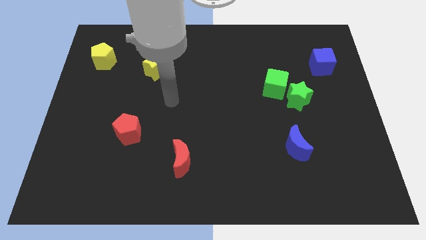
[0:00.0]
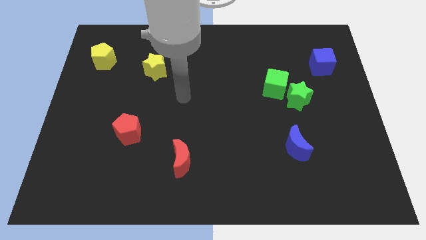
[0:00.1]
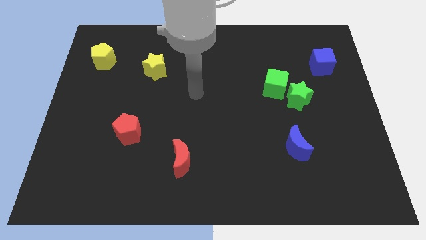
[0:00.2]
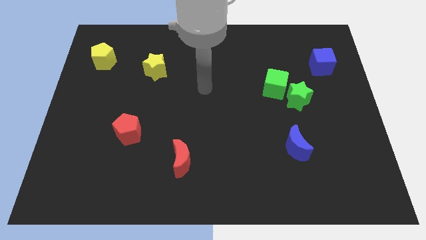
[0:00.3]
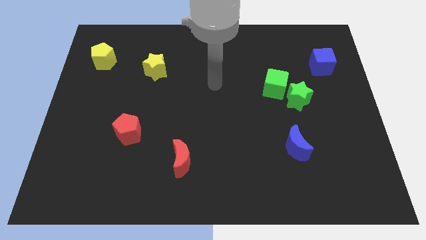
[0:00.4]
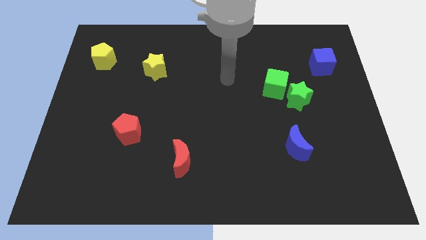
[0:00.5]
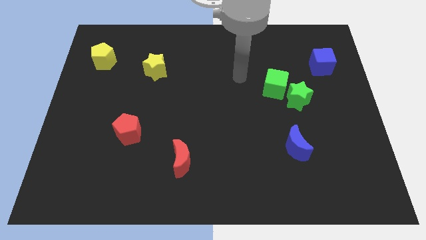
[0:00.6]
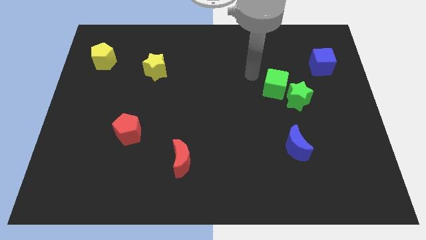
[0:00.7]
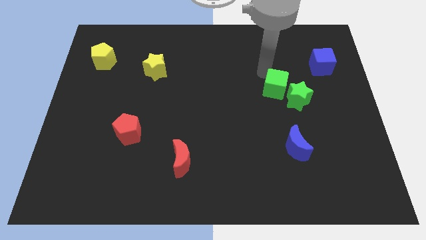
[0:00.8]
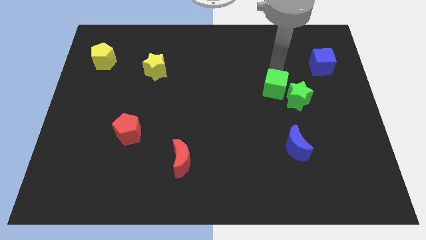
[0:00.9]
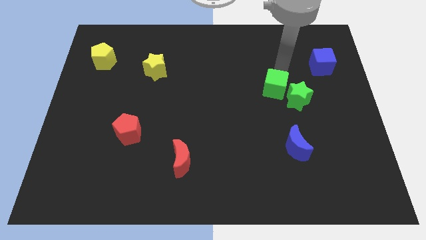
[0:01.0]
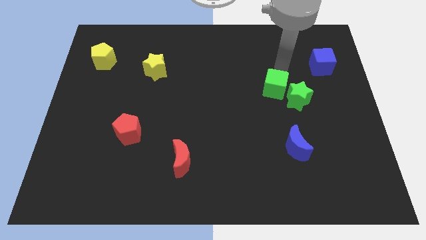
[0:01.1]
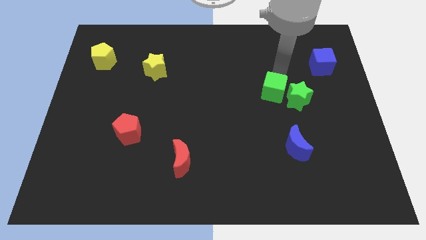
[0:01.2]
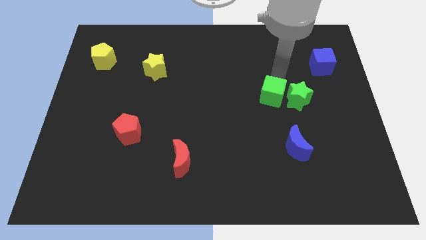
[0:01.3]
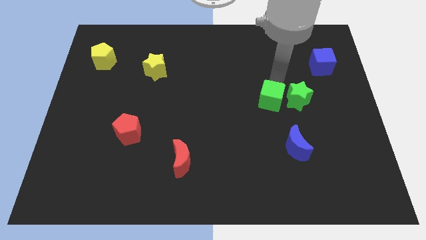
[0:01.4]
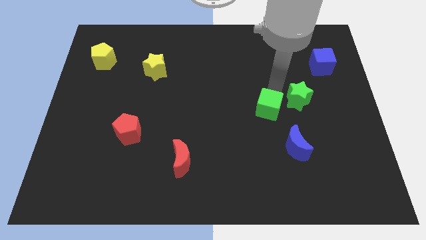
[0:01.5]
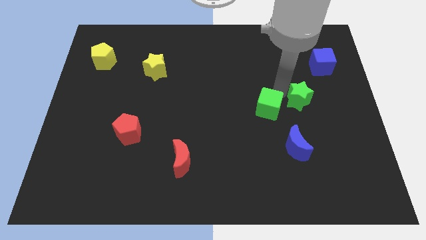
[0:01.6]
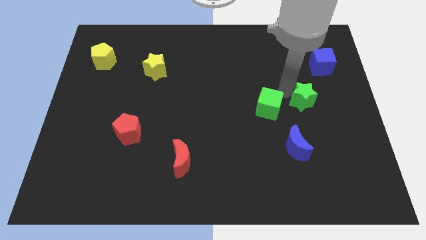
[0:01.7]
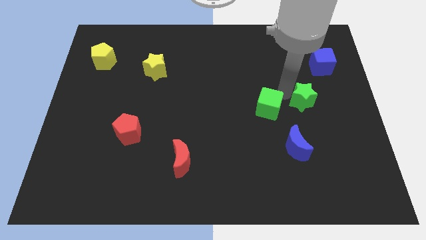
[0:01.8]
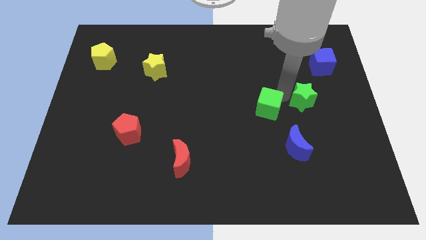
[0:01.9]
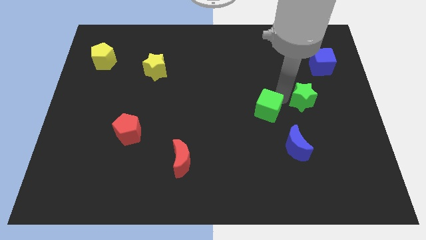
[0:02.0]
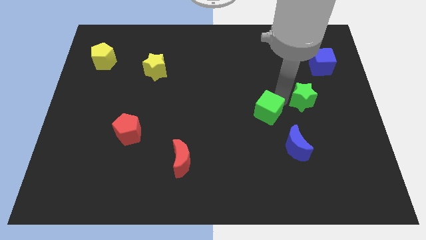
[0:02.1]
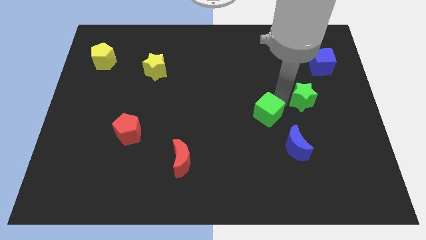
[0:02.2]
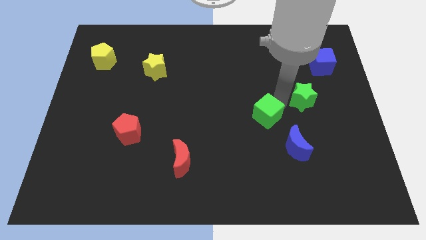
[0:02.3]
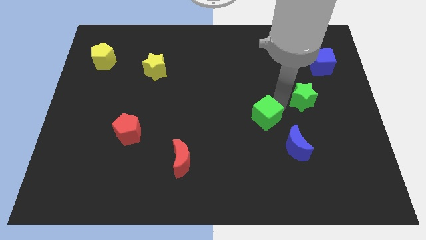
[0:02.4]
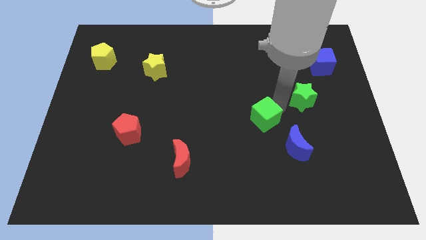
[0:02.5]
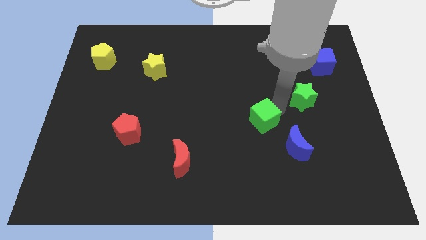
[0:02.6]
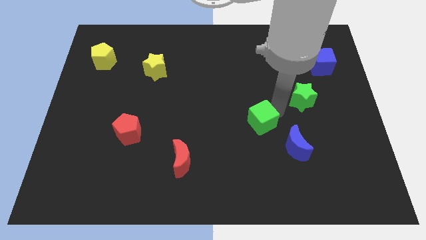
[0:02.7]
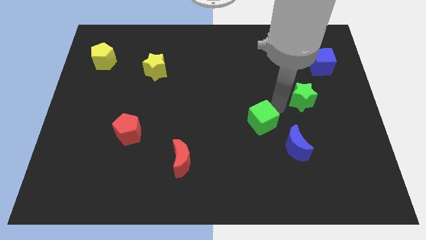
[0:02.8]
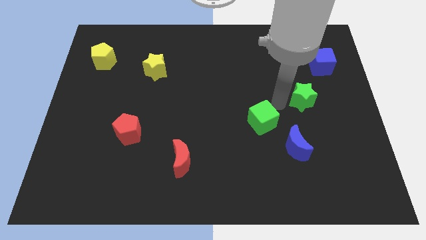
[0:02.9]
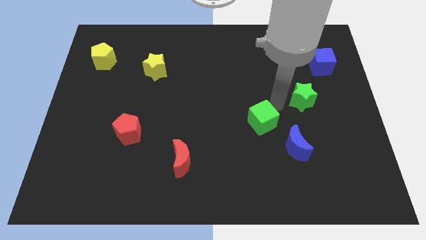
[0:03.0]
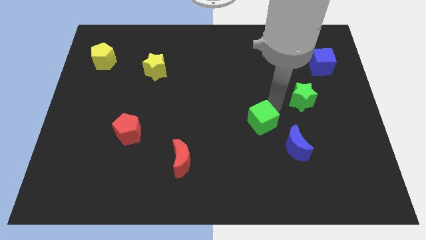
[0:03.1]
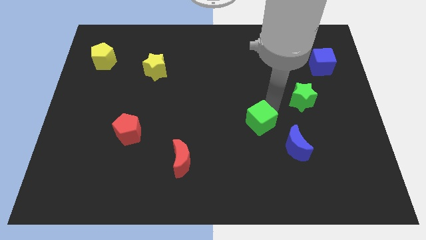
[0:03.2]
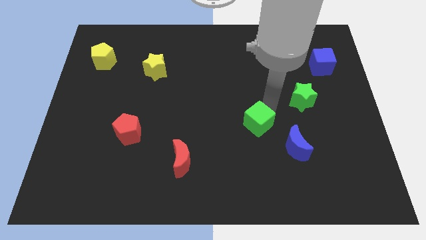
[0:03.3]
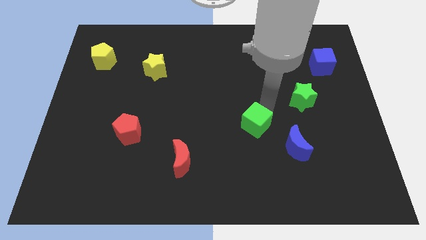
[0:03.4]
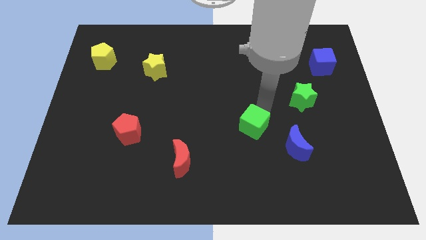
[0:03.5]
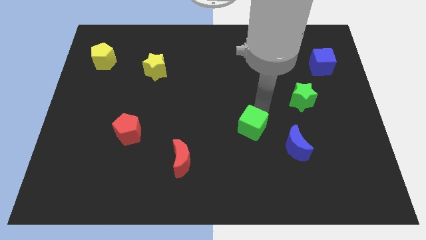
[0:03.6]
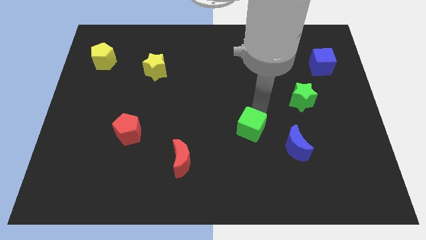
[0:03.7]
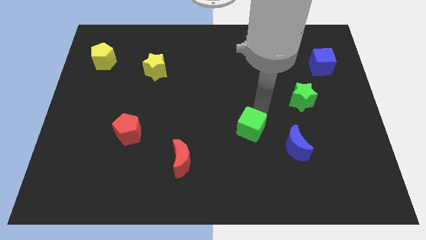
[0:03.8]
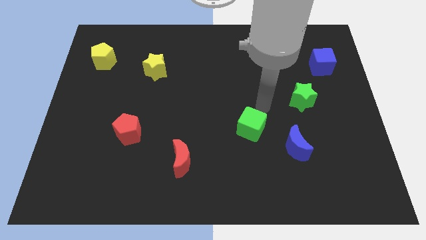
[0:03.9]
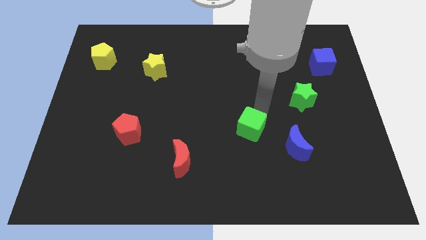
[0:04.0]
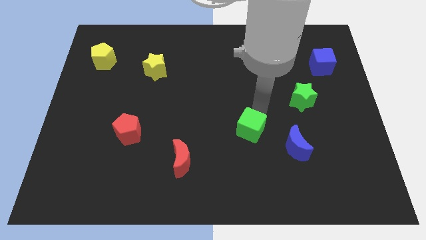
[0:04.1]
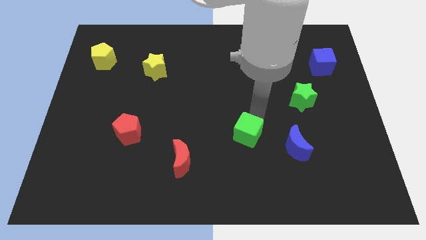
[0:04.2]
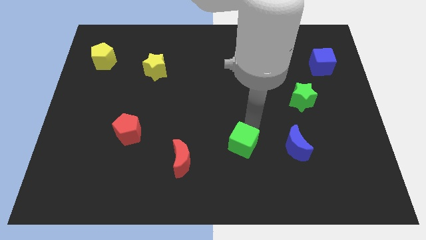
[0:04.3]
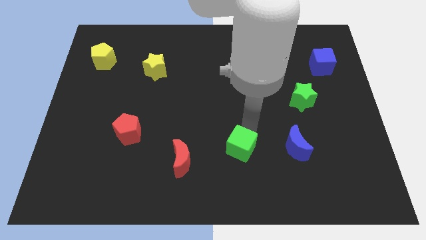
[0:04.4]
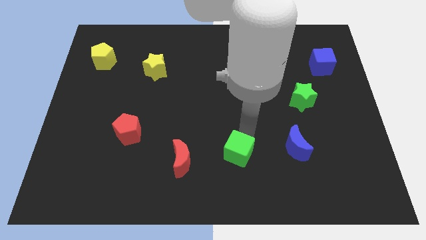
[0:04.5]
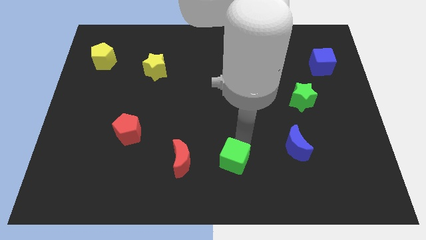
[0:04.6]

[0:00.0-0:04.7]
move the green cube to the bottom

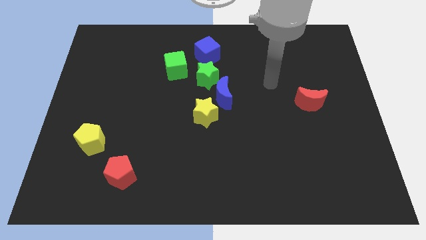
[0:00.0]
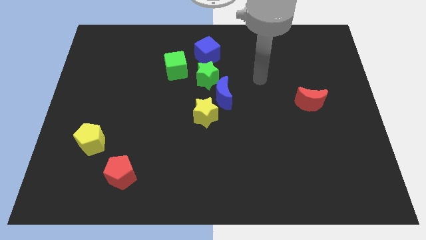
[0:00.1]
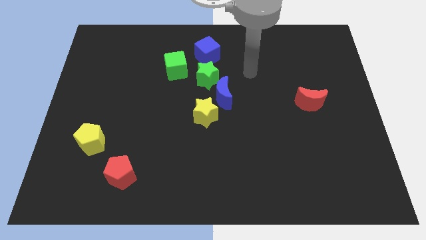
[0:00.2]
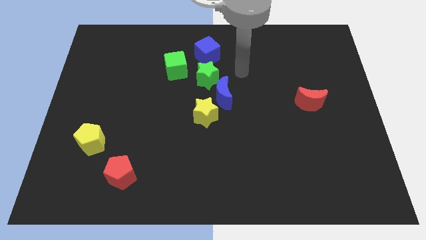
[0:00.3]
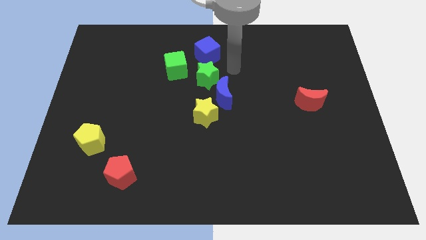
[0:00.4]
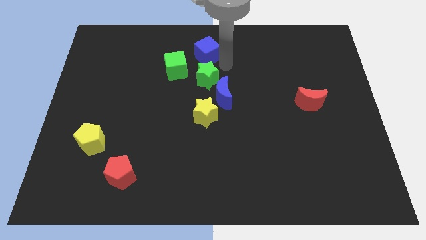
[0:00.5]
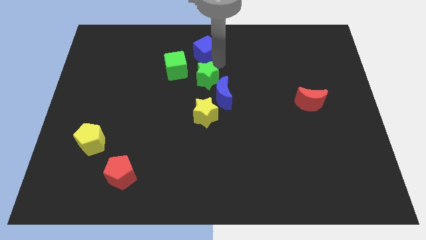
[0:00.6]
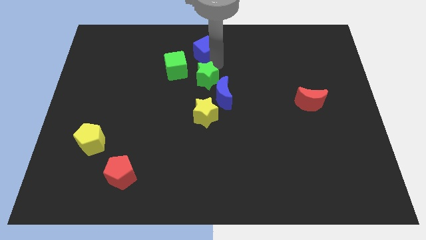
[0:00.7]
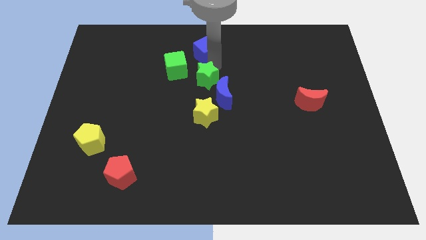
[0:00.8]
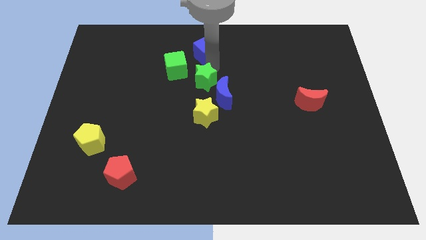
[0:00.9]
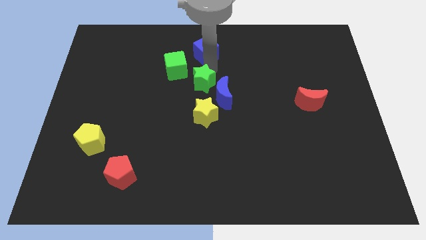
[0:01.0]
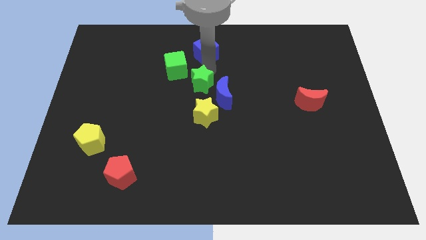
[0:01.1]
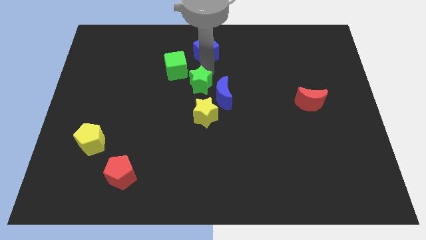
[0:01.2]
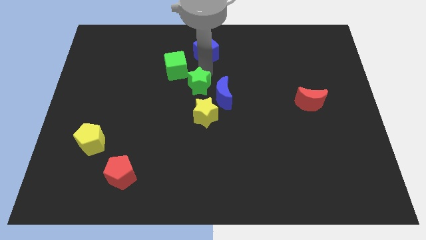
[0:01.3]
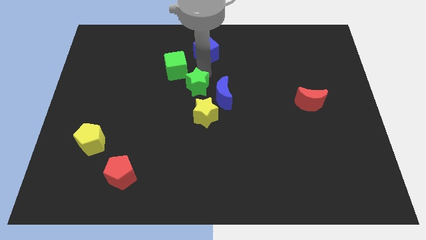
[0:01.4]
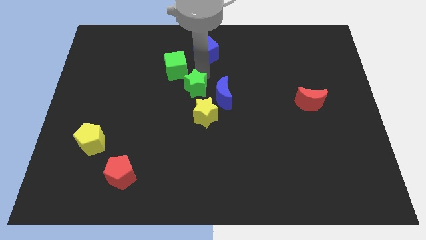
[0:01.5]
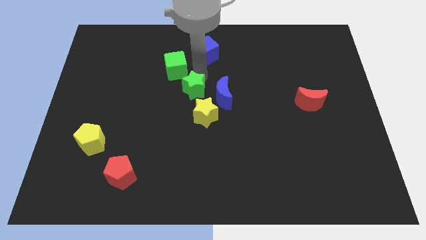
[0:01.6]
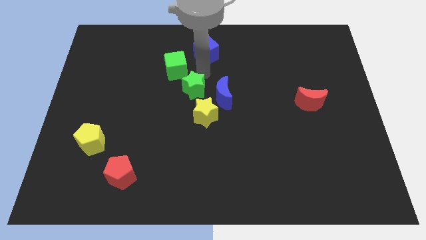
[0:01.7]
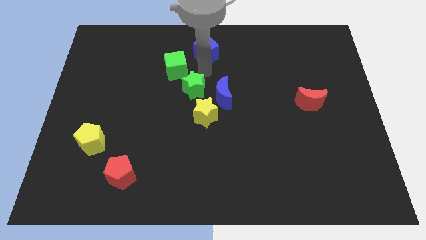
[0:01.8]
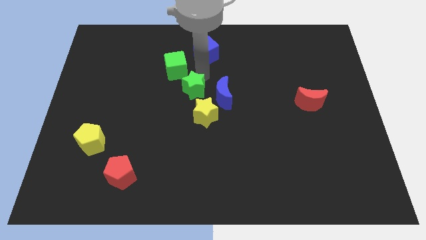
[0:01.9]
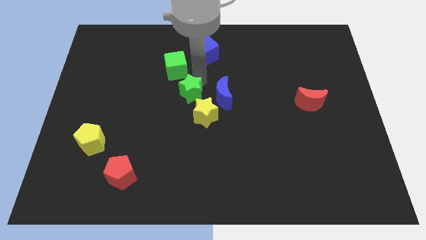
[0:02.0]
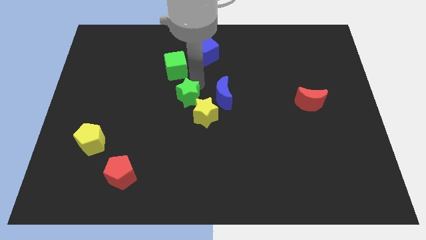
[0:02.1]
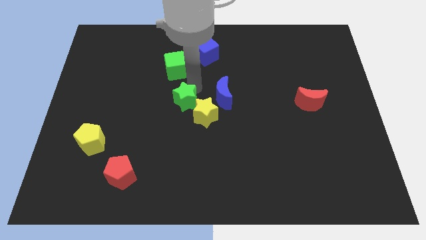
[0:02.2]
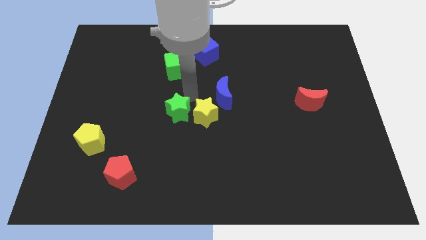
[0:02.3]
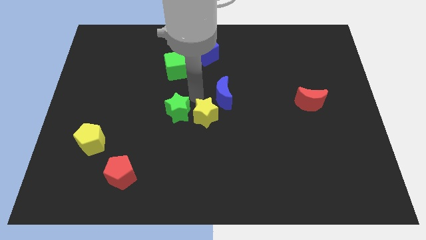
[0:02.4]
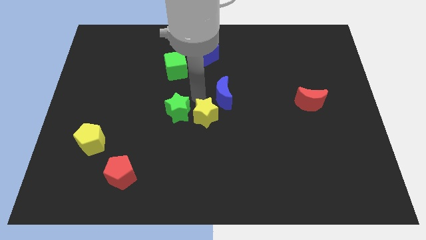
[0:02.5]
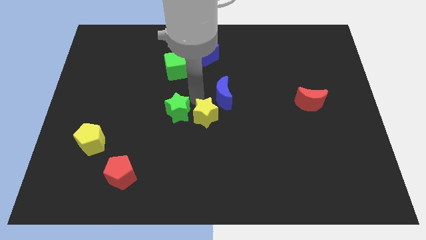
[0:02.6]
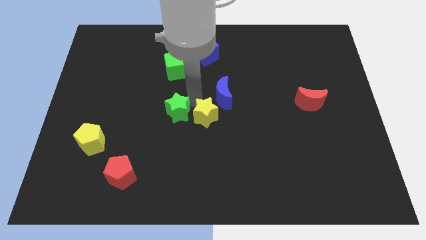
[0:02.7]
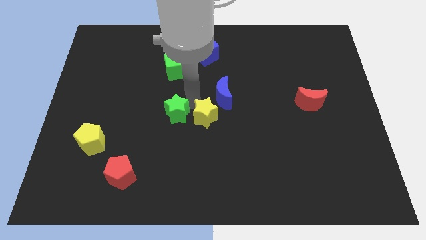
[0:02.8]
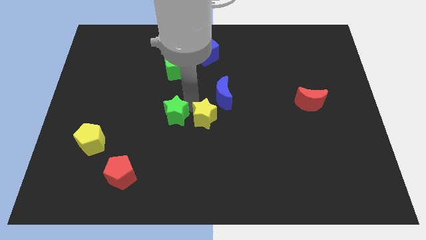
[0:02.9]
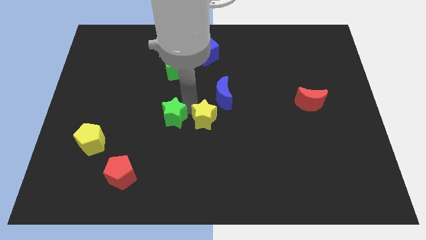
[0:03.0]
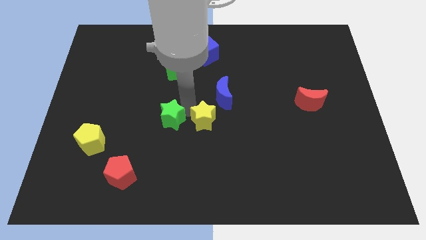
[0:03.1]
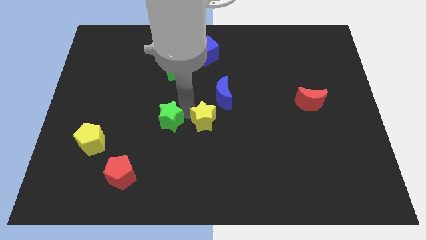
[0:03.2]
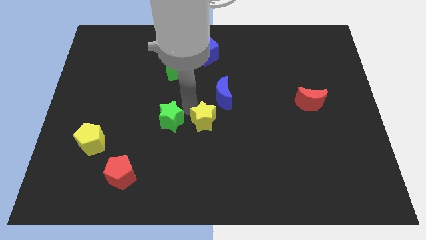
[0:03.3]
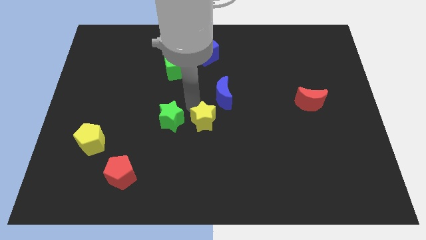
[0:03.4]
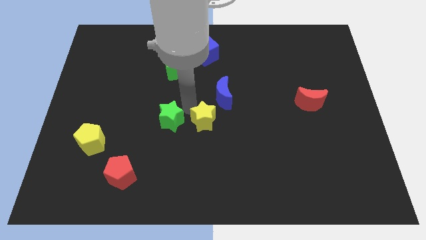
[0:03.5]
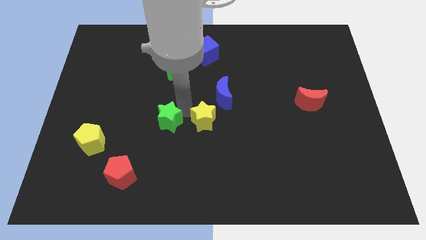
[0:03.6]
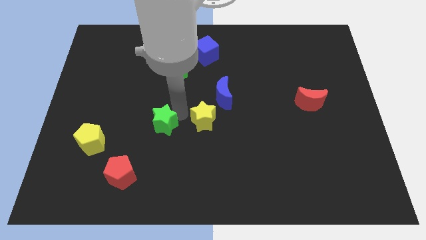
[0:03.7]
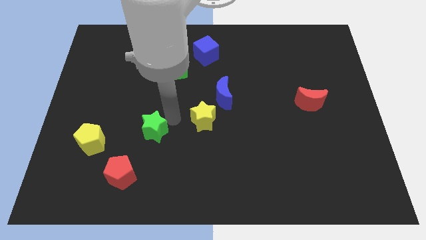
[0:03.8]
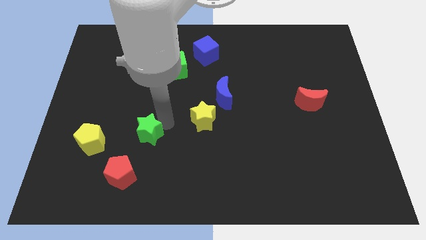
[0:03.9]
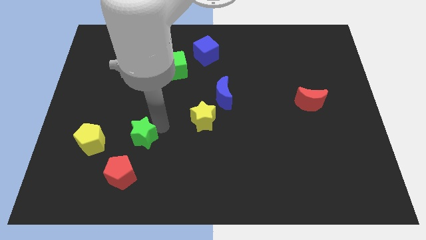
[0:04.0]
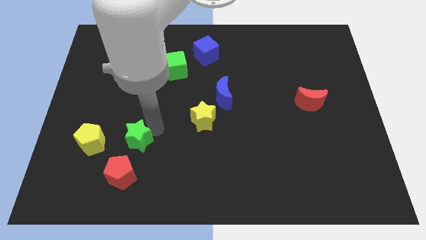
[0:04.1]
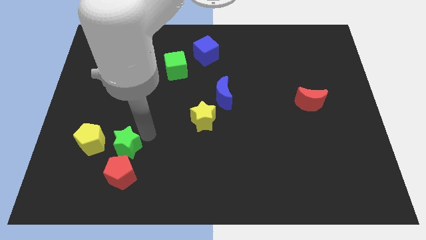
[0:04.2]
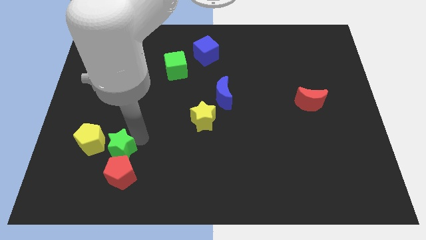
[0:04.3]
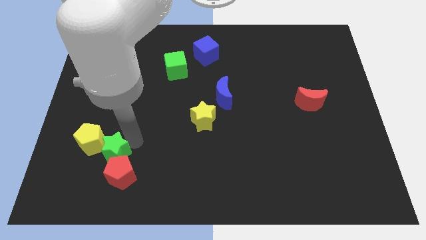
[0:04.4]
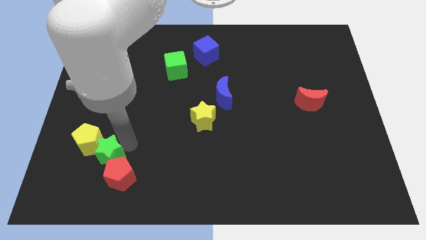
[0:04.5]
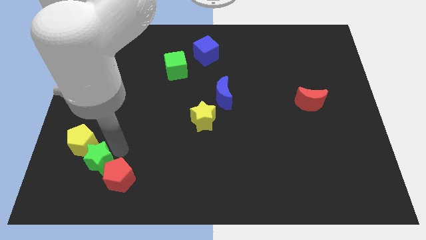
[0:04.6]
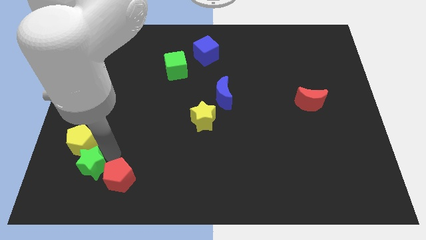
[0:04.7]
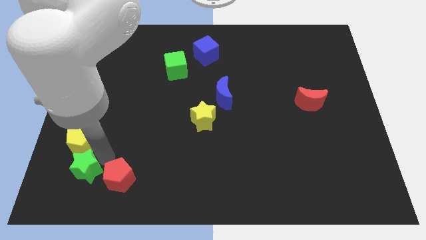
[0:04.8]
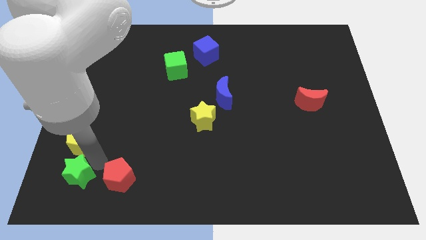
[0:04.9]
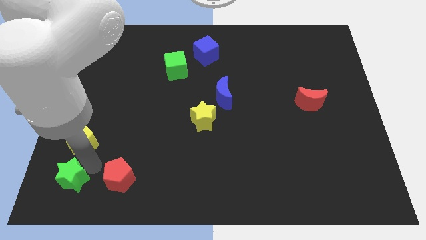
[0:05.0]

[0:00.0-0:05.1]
move the green star to the bottom left corner
